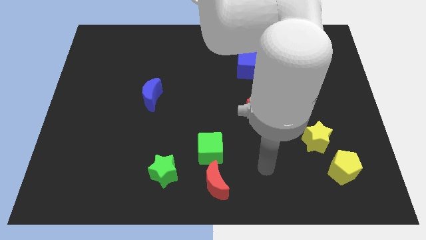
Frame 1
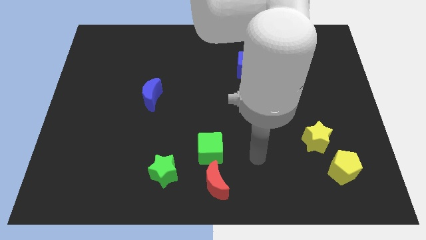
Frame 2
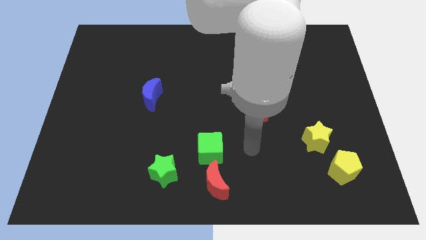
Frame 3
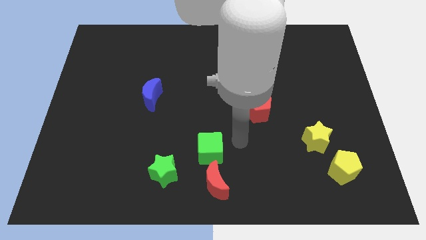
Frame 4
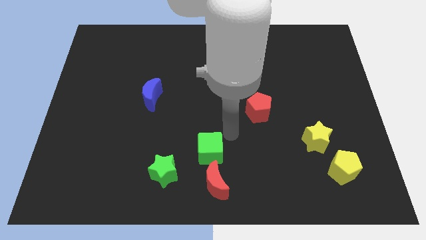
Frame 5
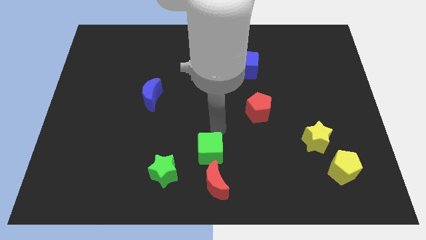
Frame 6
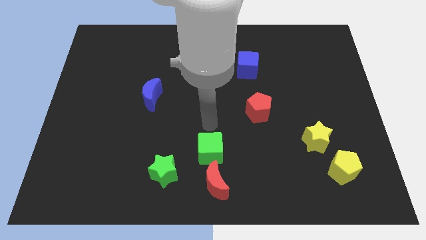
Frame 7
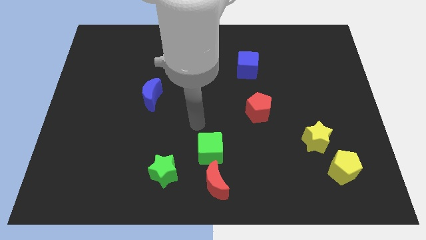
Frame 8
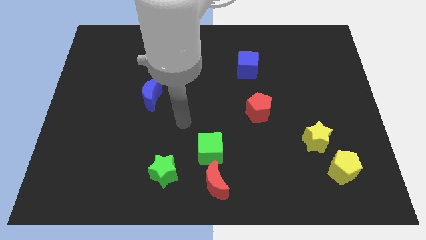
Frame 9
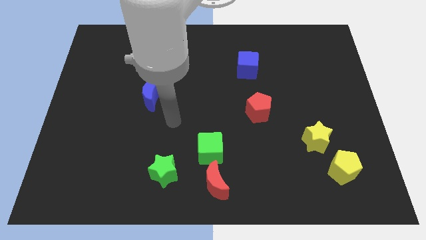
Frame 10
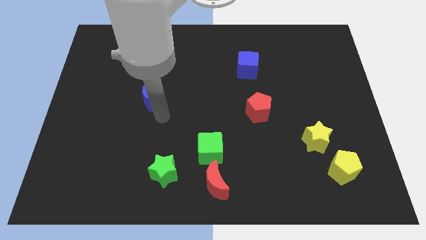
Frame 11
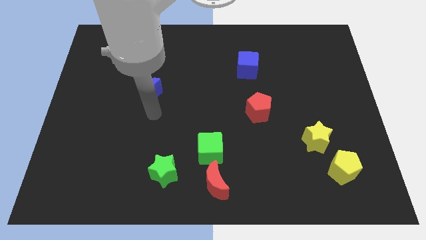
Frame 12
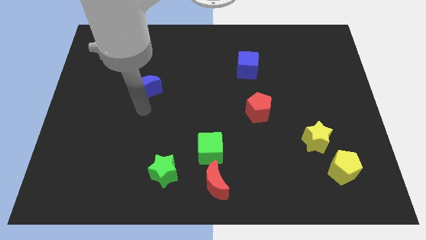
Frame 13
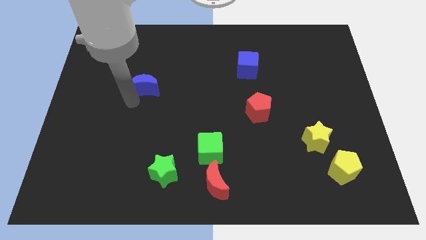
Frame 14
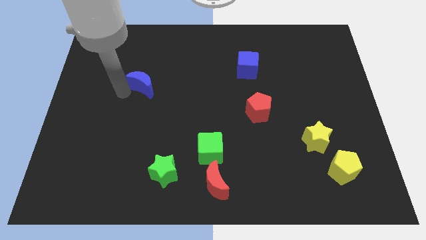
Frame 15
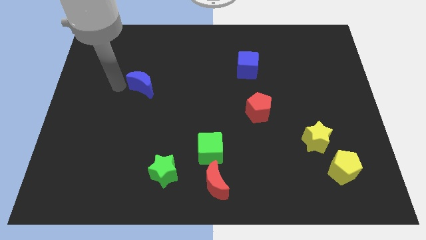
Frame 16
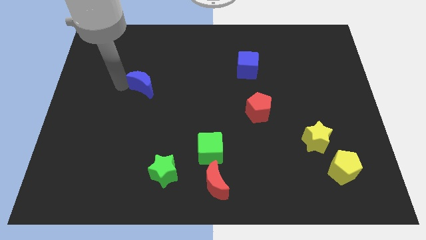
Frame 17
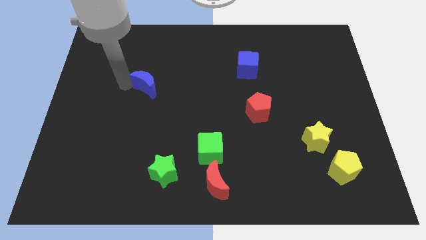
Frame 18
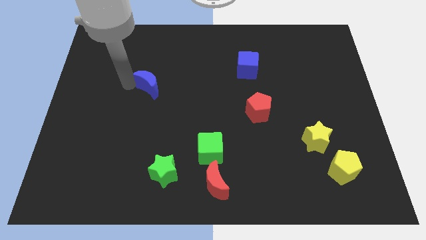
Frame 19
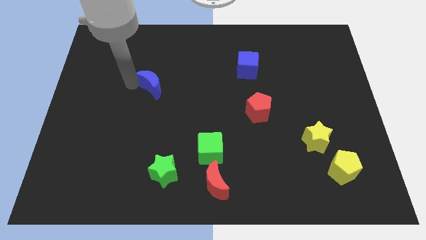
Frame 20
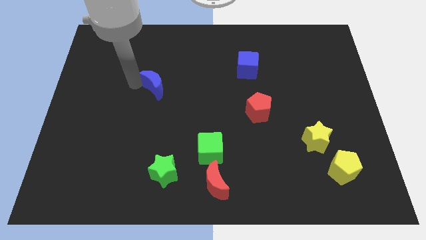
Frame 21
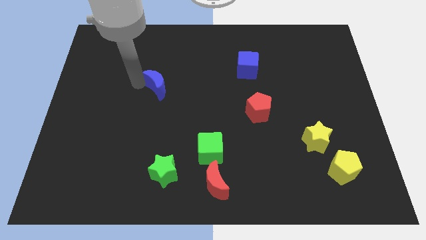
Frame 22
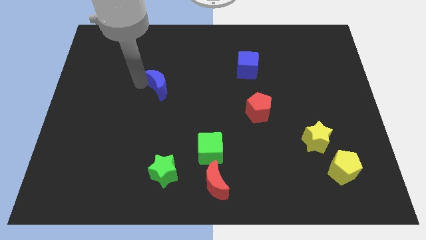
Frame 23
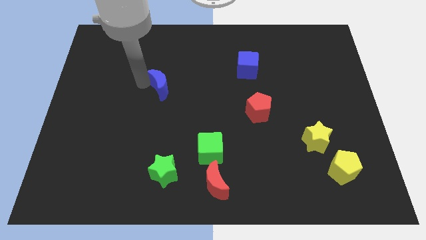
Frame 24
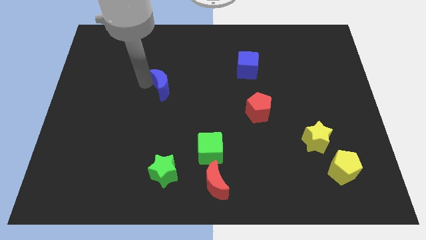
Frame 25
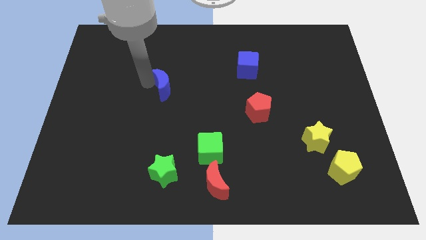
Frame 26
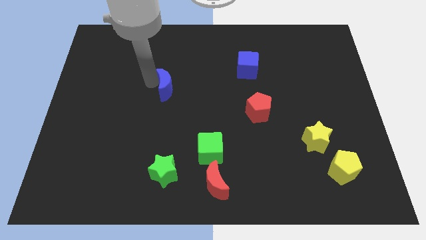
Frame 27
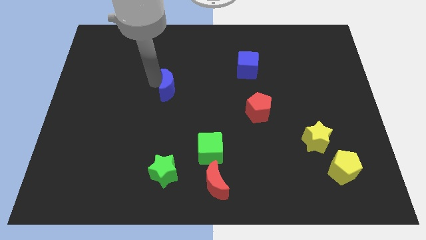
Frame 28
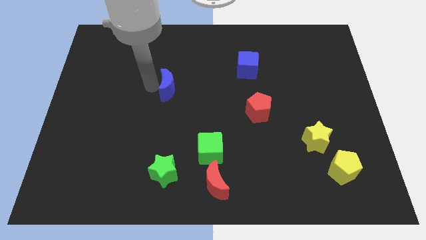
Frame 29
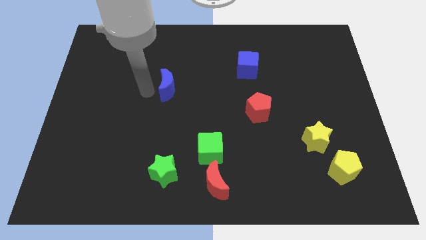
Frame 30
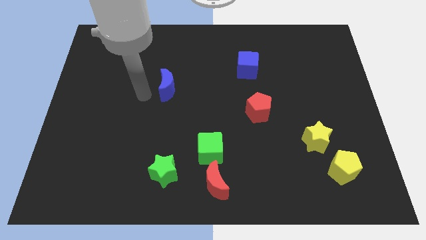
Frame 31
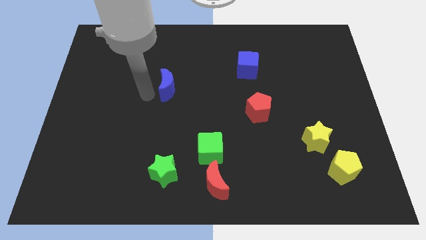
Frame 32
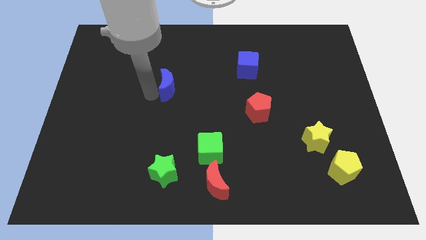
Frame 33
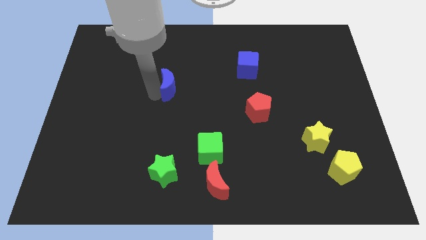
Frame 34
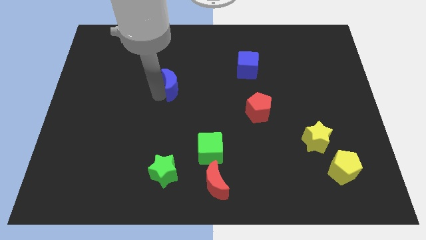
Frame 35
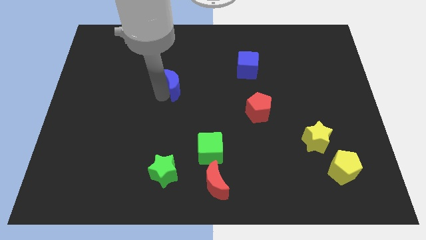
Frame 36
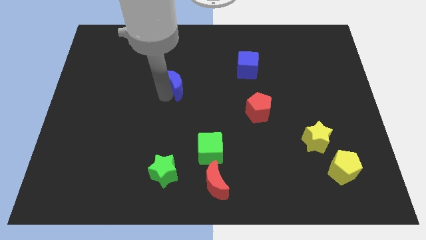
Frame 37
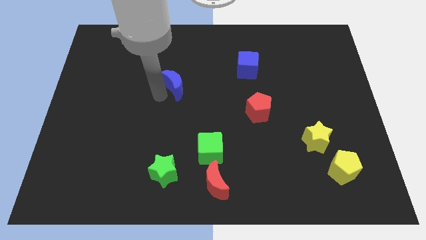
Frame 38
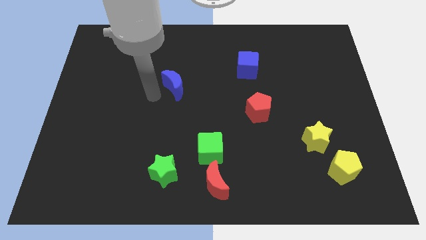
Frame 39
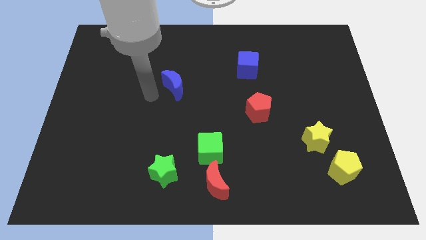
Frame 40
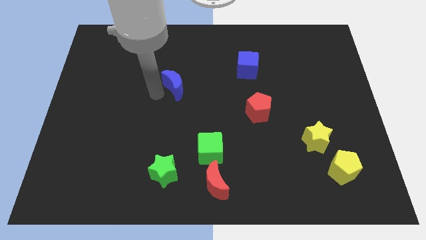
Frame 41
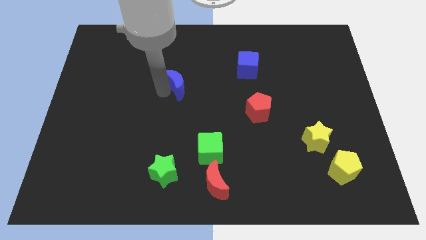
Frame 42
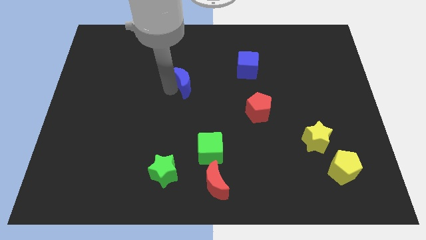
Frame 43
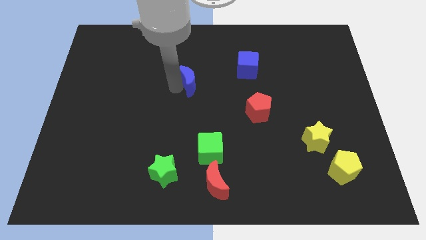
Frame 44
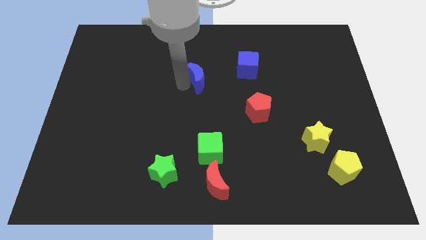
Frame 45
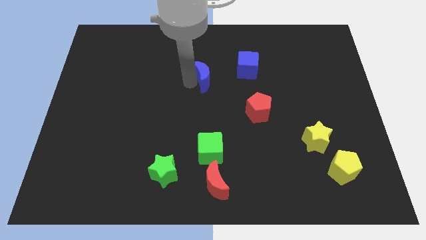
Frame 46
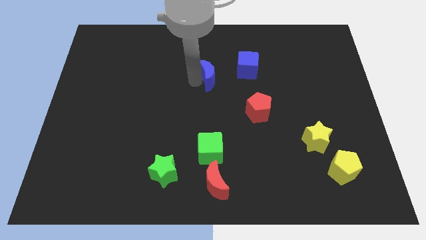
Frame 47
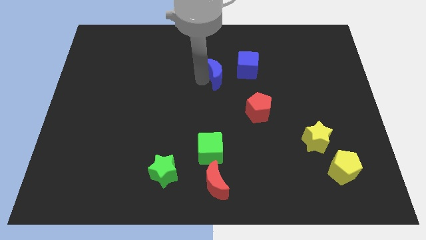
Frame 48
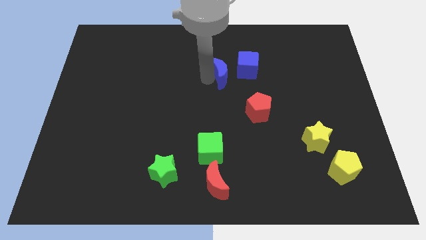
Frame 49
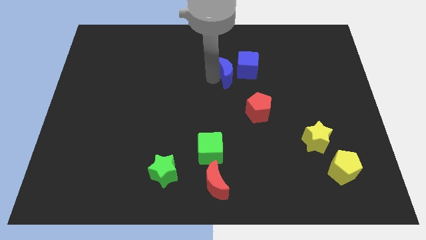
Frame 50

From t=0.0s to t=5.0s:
move the blue moon close to the blue cube

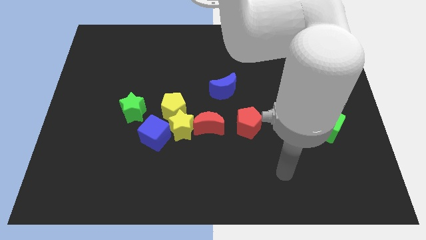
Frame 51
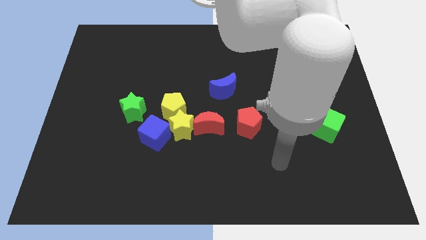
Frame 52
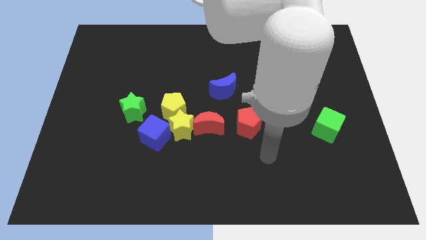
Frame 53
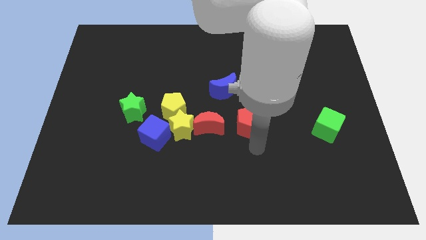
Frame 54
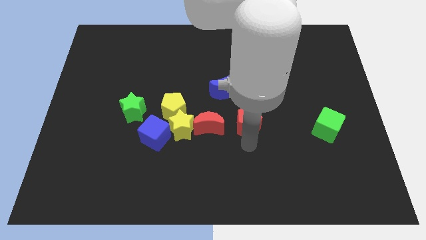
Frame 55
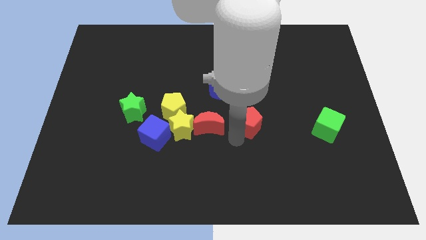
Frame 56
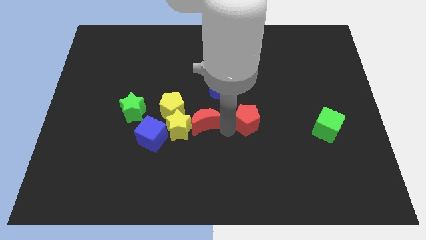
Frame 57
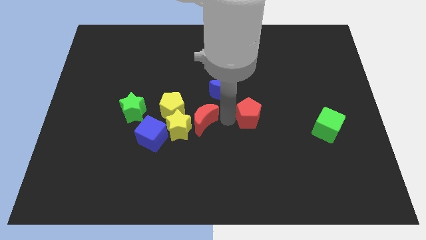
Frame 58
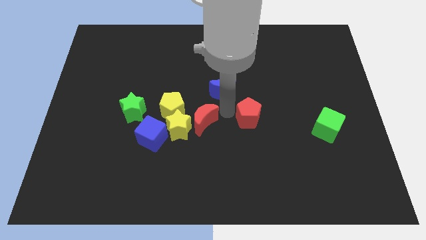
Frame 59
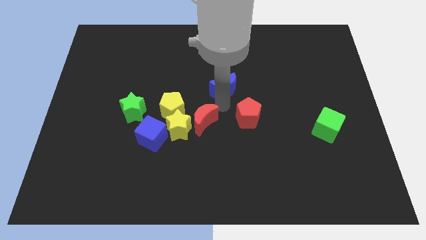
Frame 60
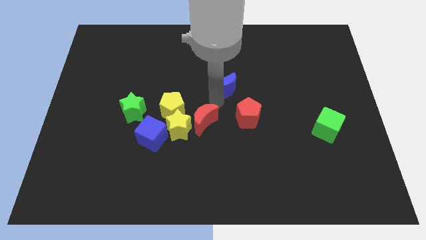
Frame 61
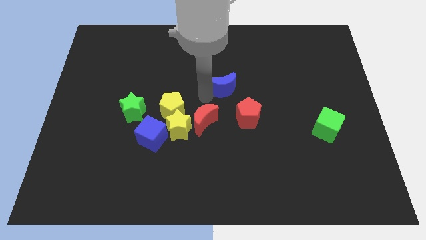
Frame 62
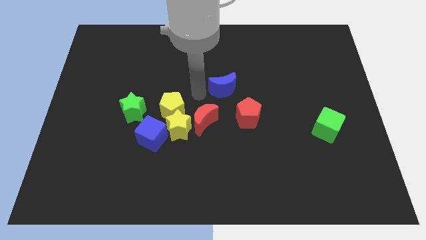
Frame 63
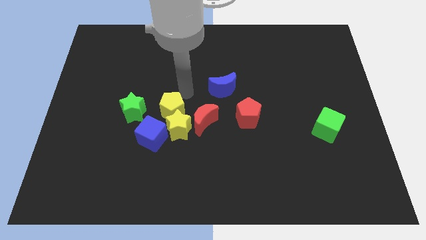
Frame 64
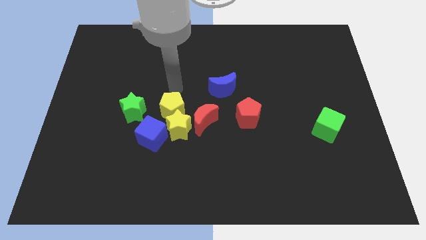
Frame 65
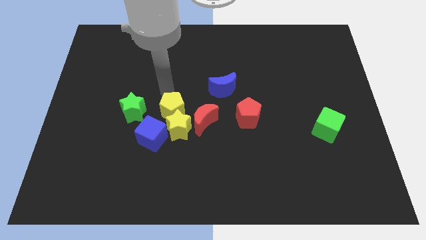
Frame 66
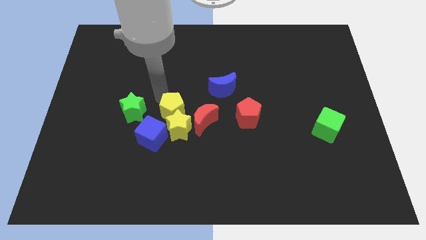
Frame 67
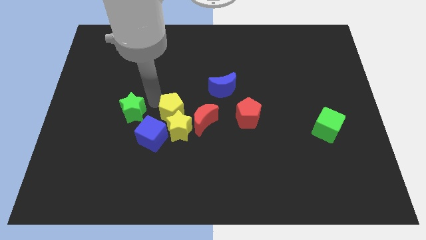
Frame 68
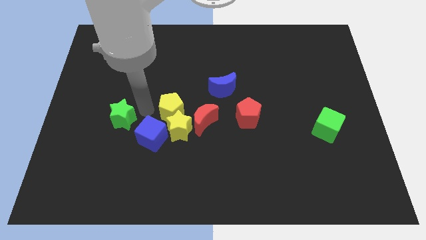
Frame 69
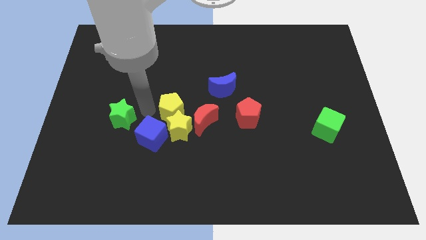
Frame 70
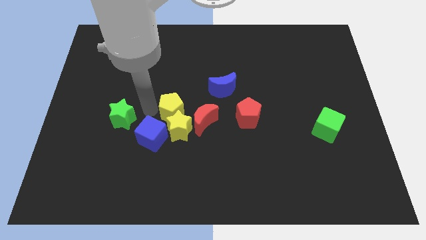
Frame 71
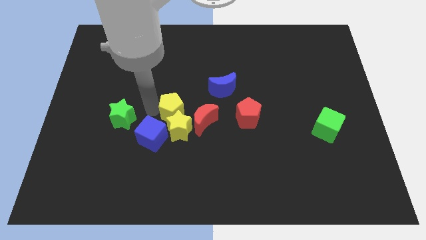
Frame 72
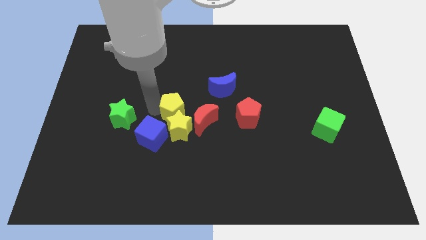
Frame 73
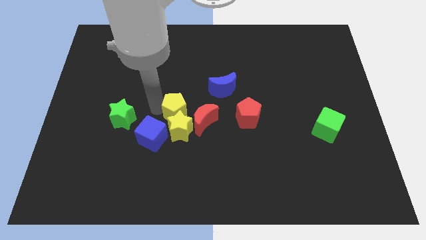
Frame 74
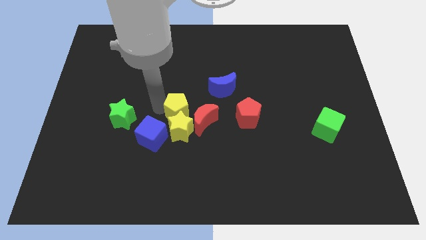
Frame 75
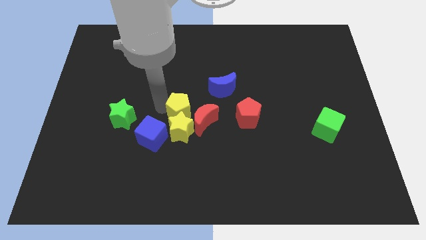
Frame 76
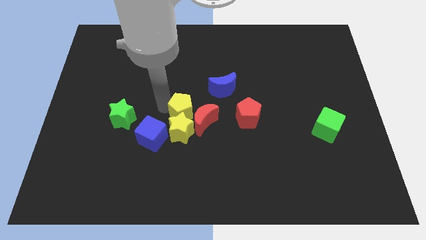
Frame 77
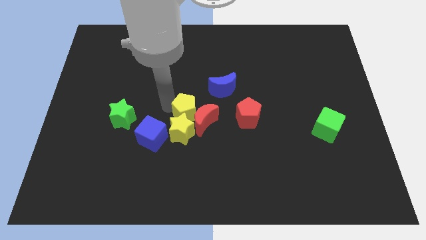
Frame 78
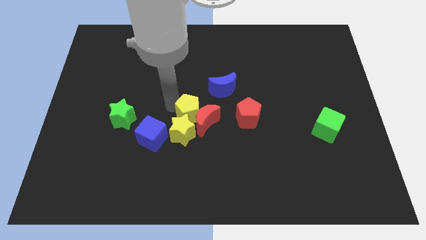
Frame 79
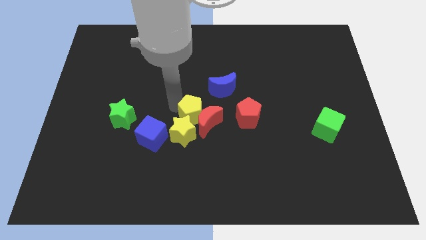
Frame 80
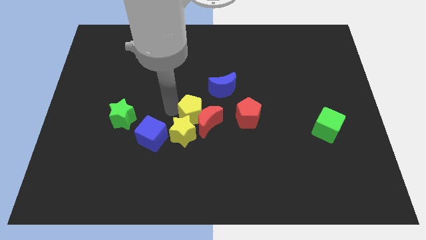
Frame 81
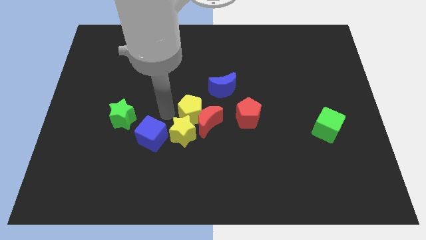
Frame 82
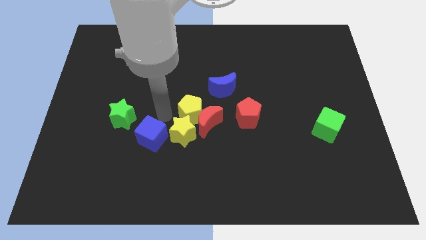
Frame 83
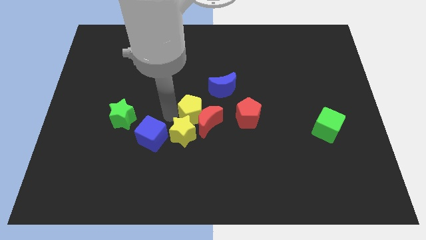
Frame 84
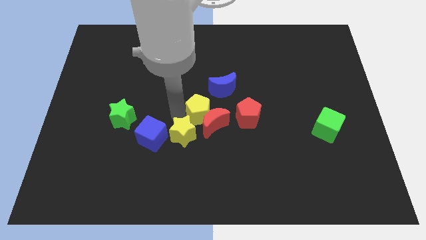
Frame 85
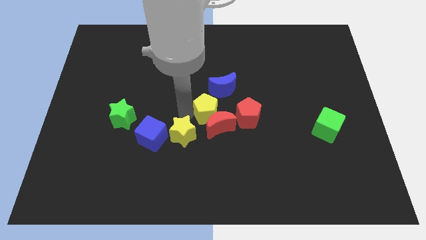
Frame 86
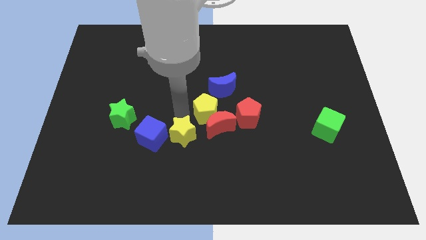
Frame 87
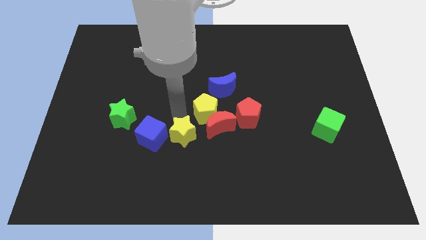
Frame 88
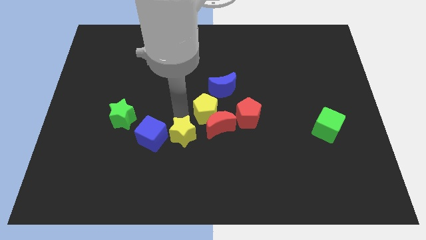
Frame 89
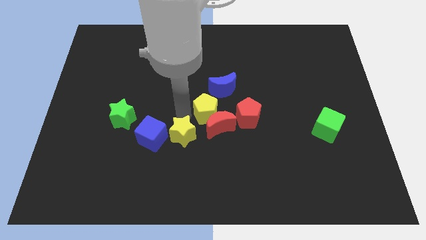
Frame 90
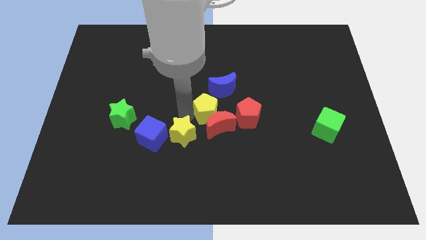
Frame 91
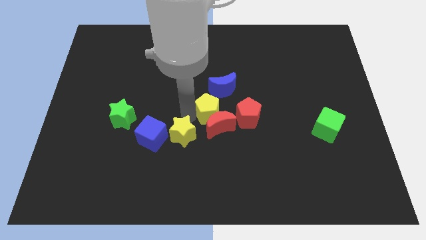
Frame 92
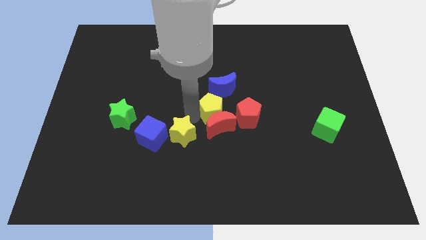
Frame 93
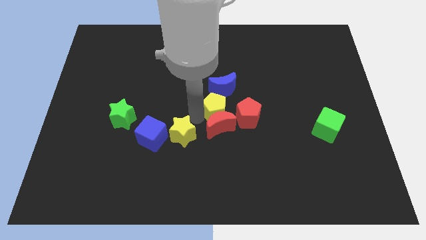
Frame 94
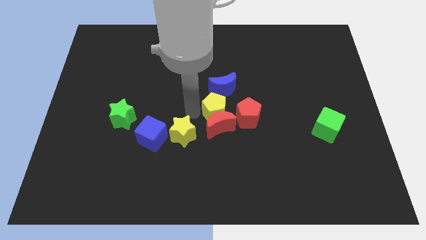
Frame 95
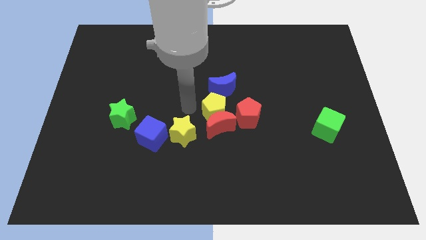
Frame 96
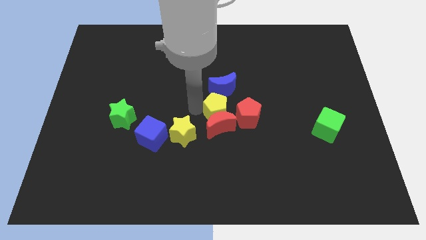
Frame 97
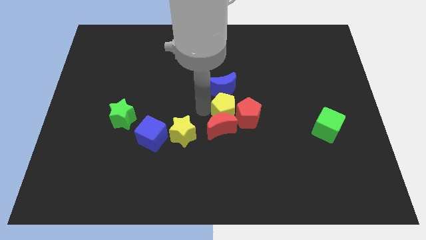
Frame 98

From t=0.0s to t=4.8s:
put the yellow pentagon close to the red pentagon
